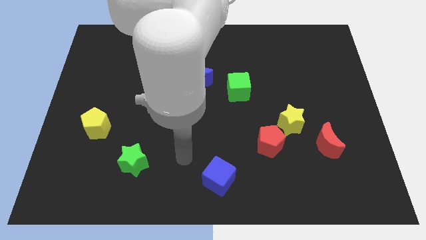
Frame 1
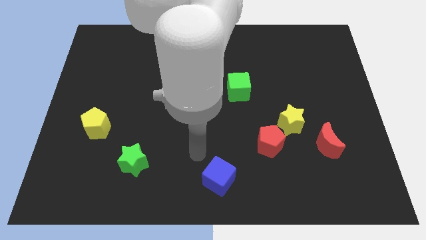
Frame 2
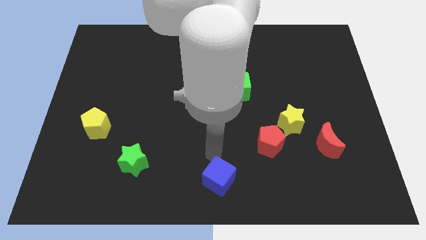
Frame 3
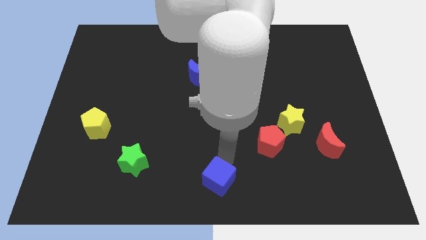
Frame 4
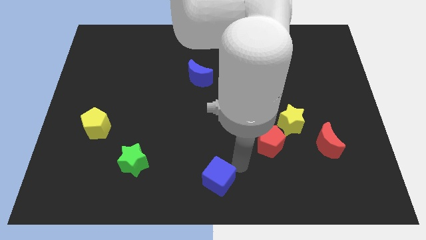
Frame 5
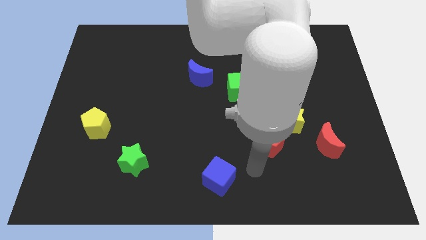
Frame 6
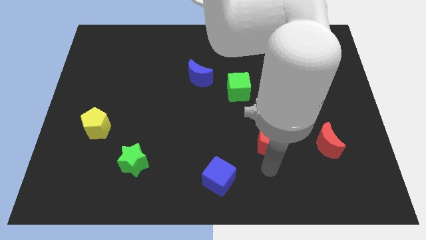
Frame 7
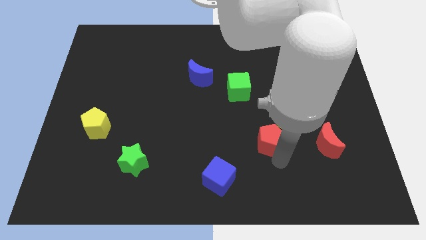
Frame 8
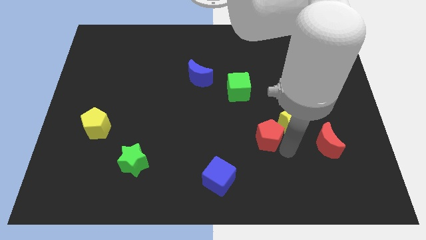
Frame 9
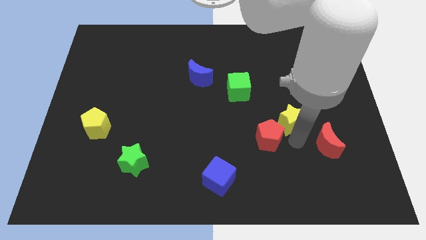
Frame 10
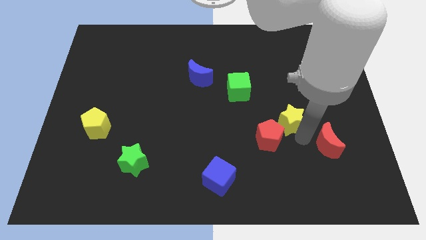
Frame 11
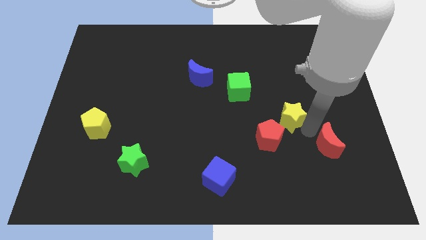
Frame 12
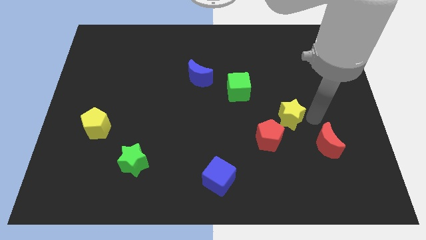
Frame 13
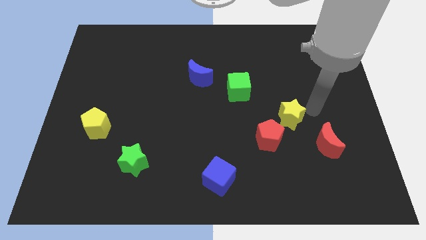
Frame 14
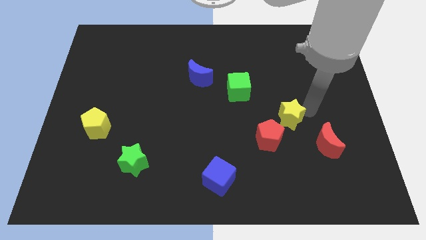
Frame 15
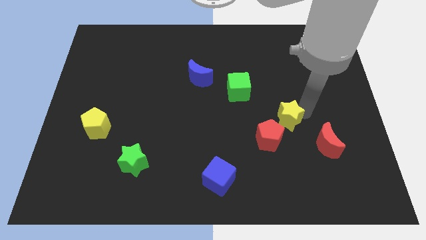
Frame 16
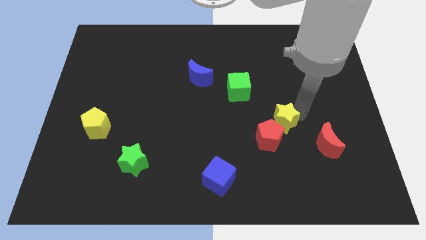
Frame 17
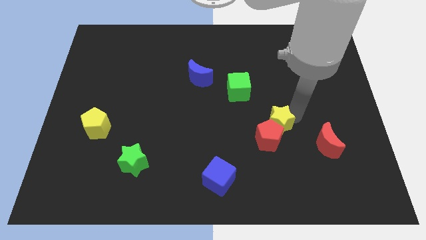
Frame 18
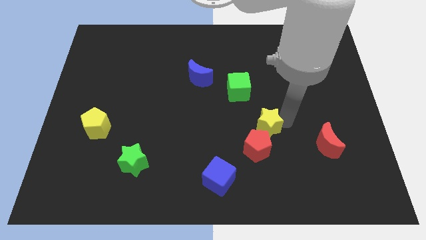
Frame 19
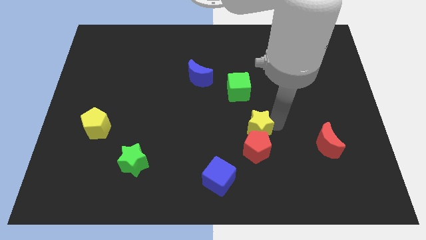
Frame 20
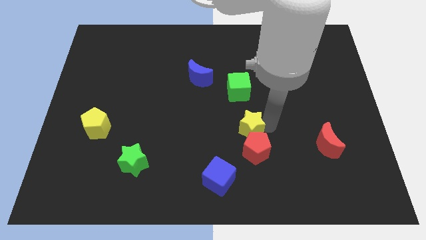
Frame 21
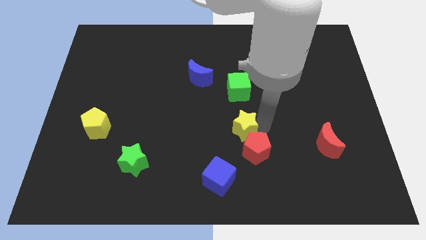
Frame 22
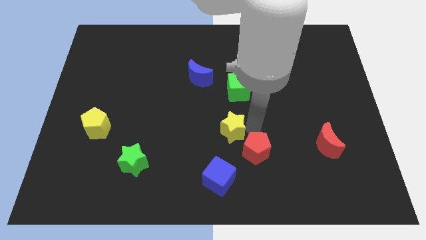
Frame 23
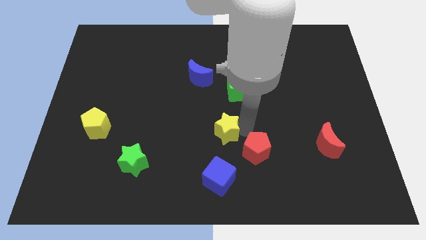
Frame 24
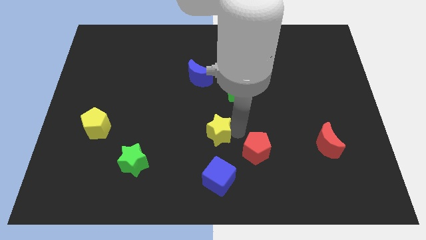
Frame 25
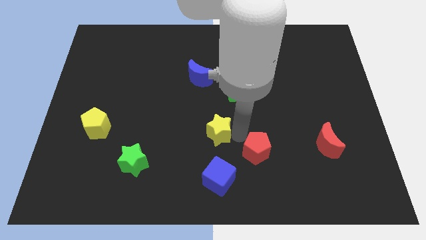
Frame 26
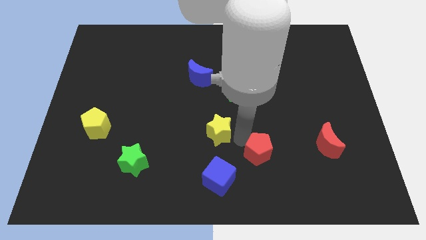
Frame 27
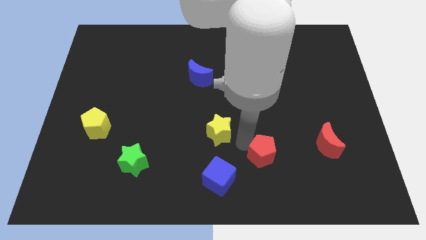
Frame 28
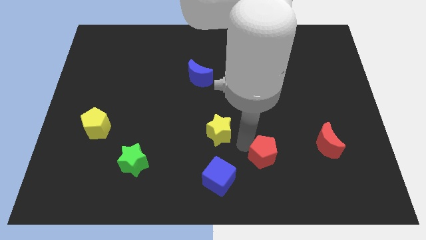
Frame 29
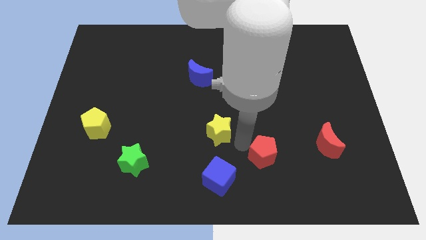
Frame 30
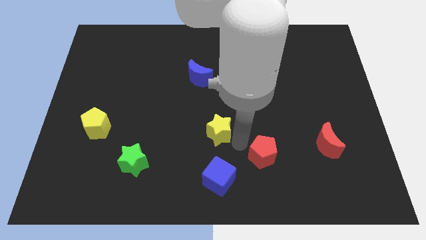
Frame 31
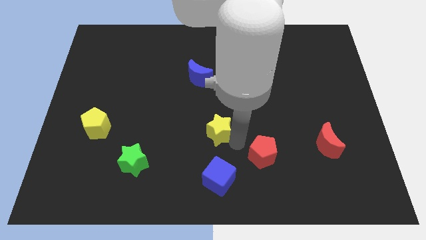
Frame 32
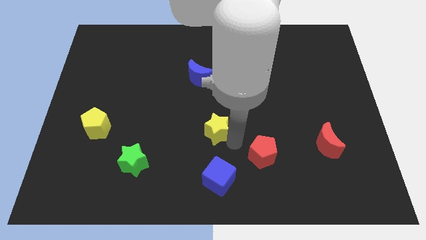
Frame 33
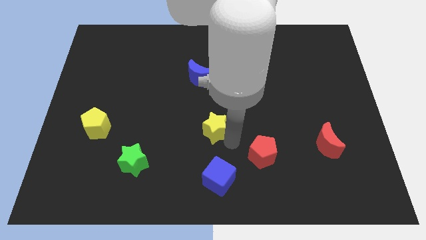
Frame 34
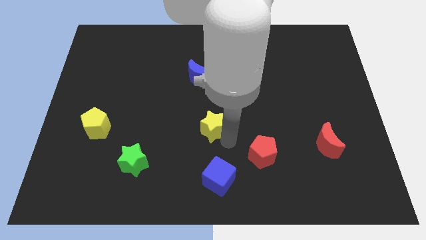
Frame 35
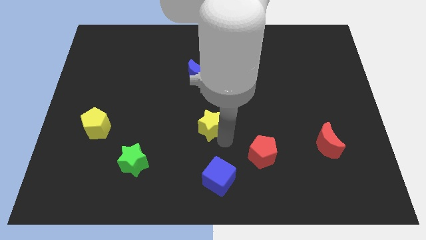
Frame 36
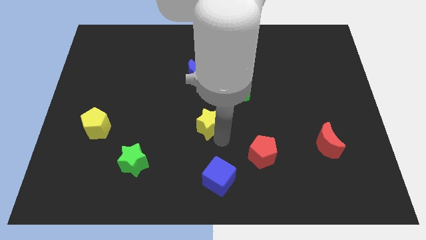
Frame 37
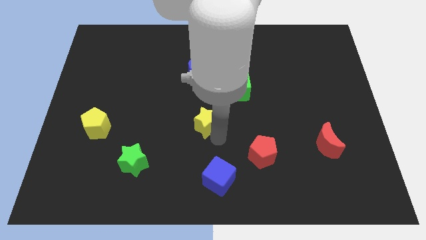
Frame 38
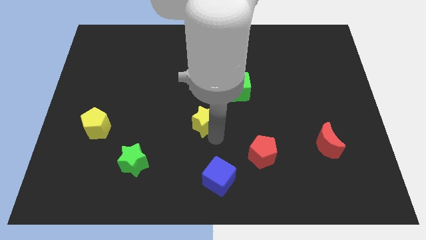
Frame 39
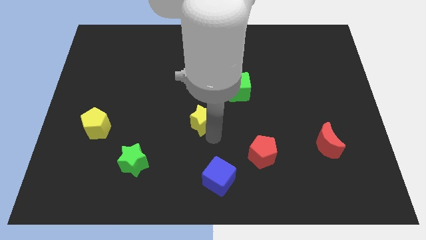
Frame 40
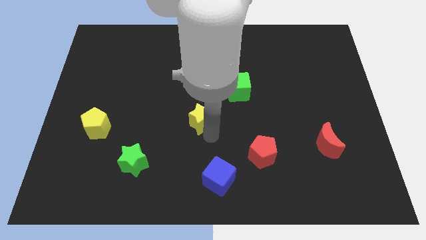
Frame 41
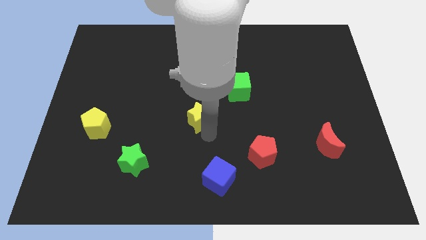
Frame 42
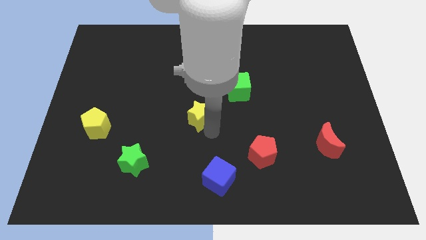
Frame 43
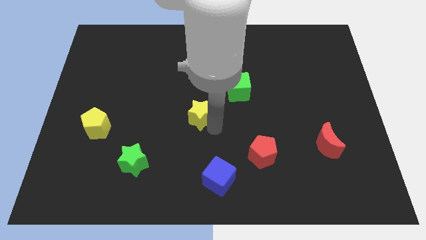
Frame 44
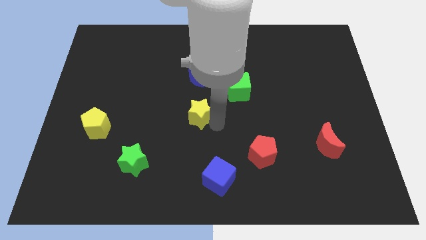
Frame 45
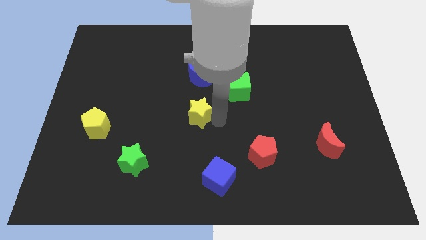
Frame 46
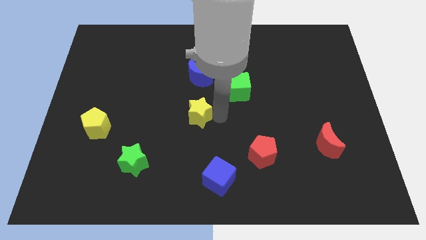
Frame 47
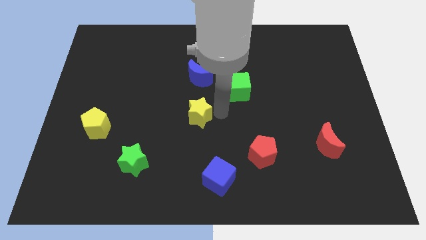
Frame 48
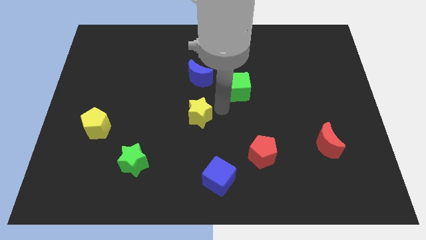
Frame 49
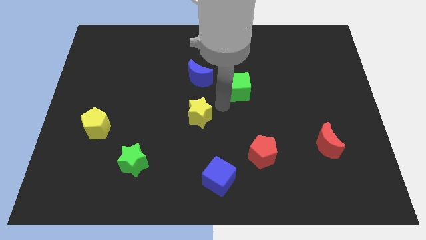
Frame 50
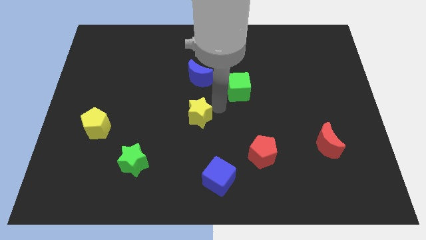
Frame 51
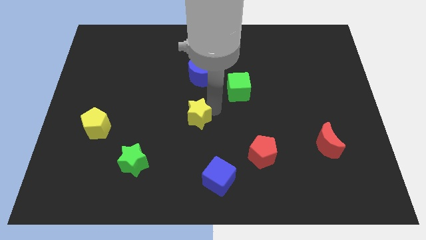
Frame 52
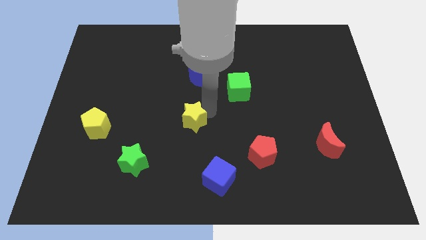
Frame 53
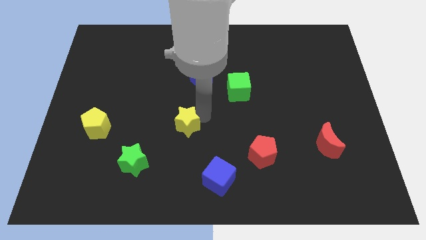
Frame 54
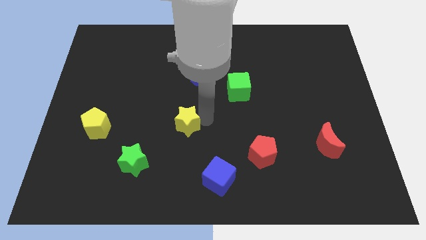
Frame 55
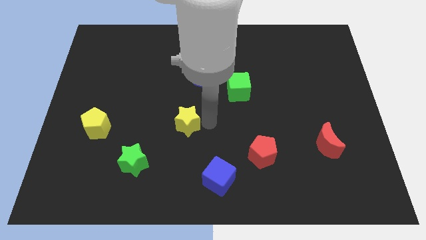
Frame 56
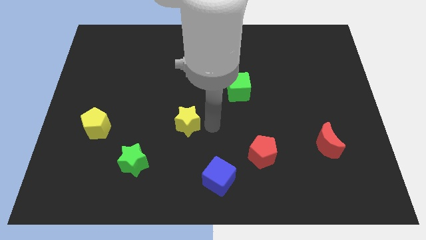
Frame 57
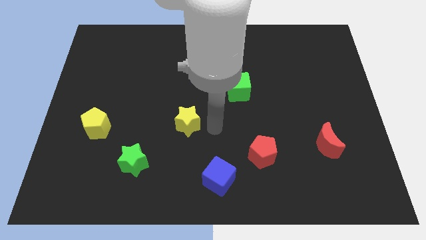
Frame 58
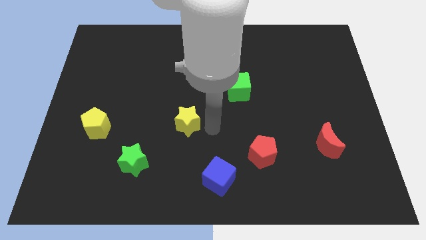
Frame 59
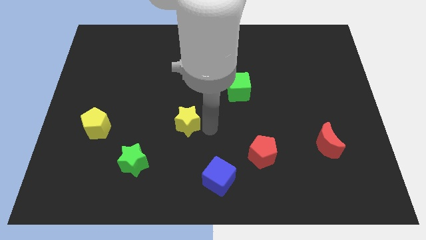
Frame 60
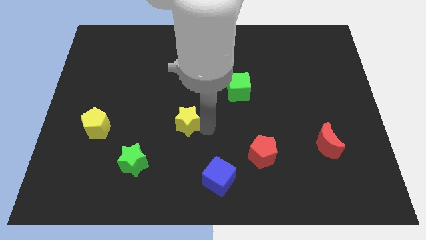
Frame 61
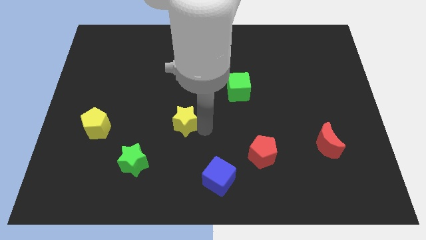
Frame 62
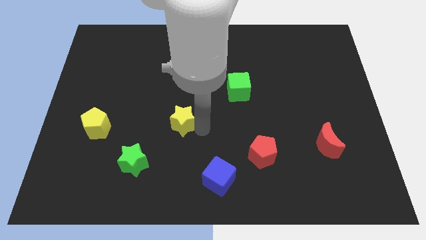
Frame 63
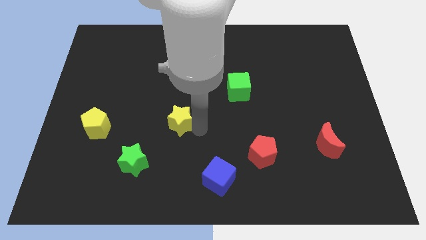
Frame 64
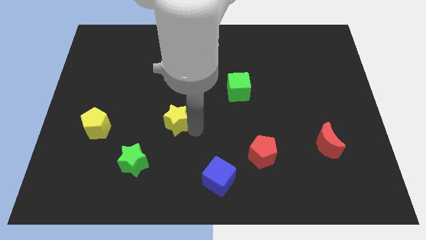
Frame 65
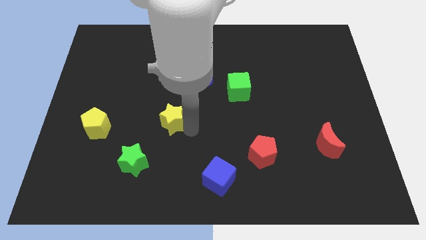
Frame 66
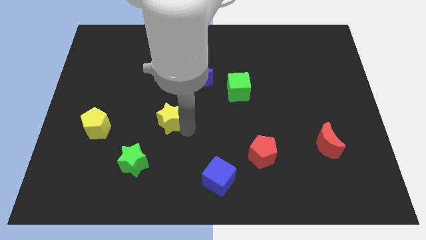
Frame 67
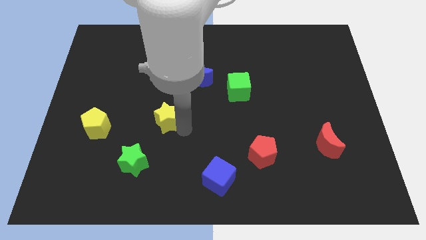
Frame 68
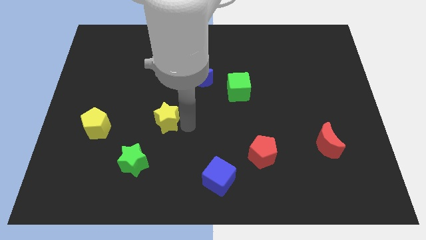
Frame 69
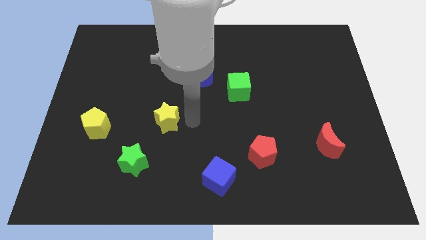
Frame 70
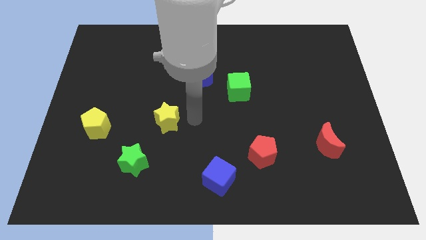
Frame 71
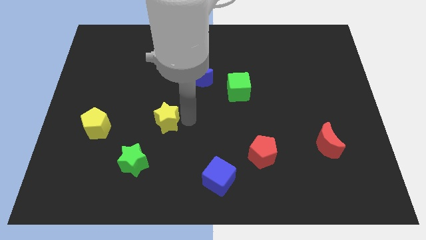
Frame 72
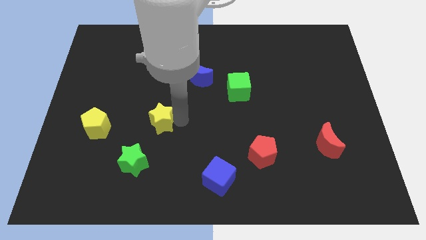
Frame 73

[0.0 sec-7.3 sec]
move the yellow star to the top of the green star
